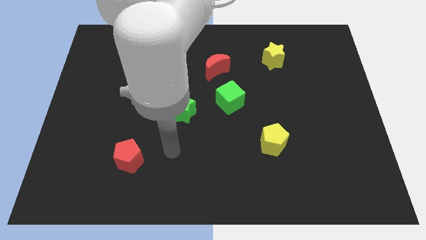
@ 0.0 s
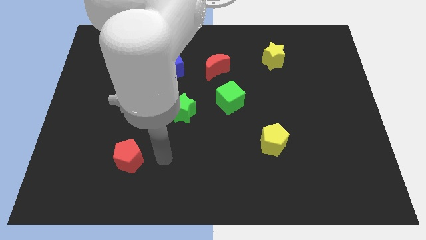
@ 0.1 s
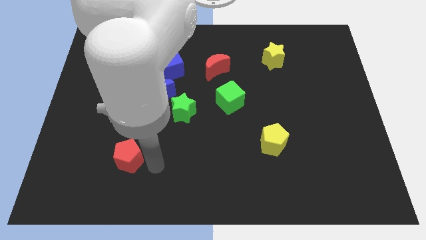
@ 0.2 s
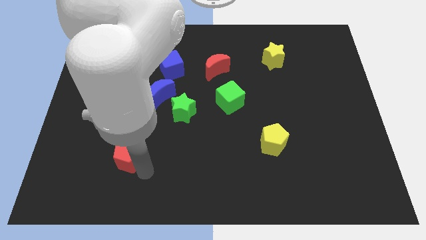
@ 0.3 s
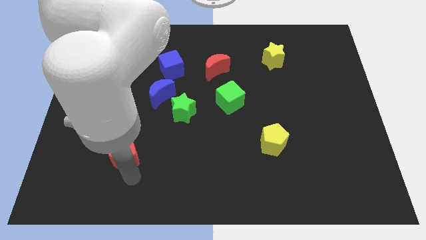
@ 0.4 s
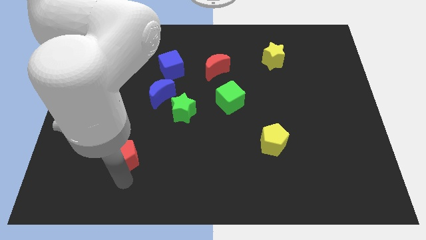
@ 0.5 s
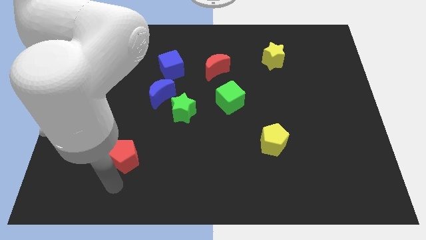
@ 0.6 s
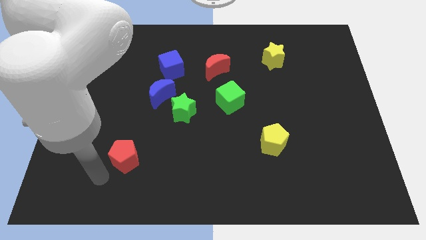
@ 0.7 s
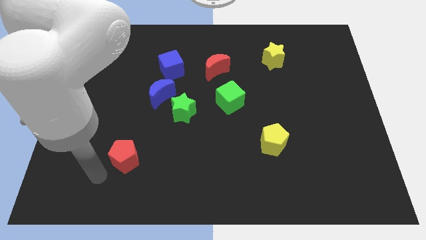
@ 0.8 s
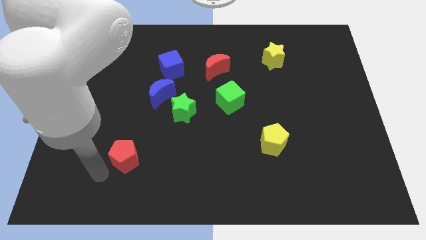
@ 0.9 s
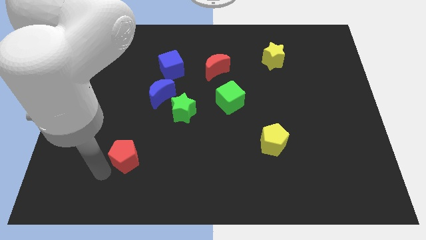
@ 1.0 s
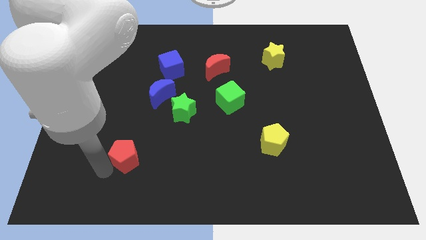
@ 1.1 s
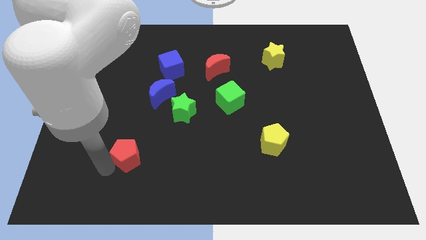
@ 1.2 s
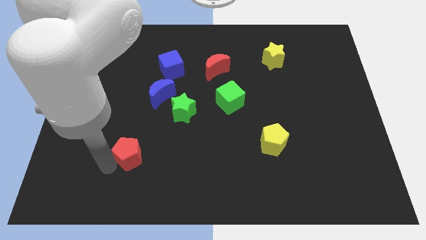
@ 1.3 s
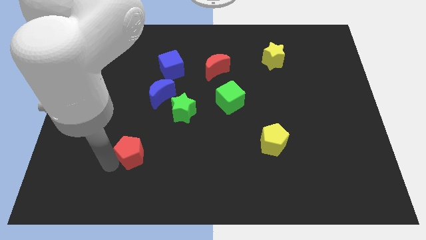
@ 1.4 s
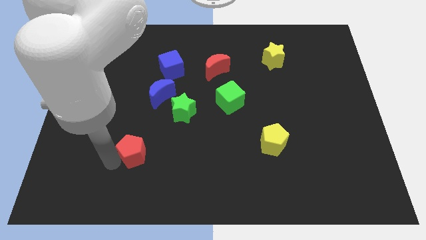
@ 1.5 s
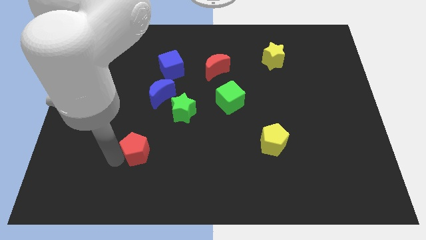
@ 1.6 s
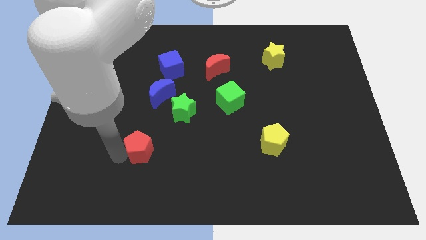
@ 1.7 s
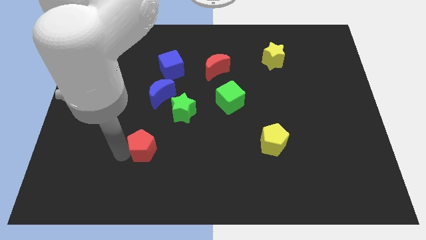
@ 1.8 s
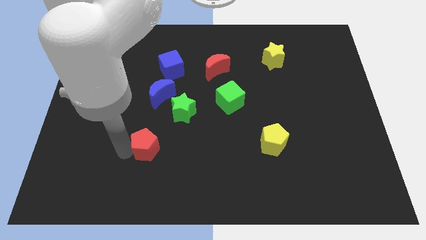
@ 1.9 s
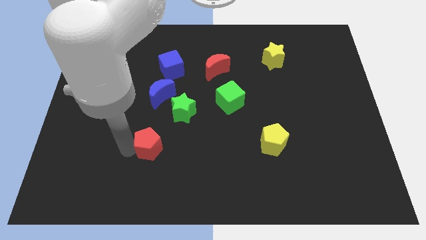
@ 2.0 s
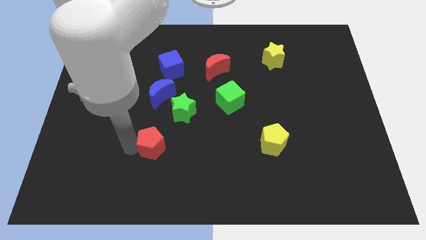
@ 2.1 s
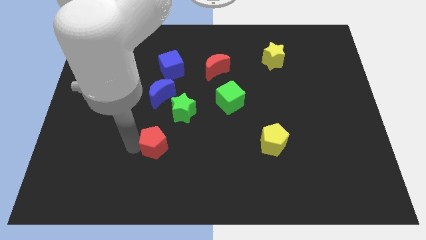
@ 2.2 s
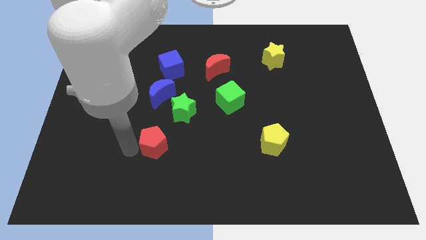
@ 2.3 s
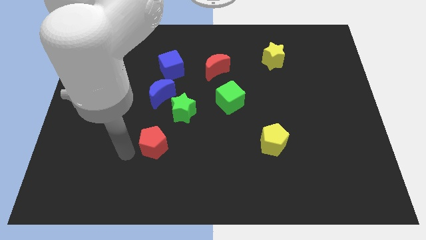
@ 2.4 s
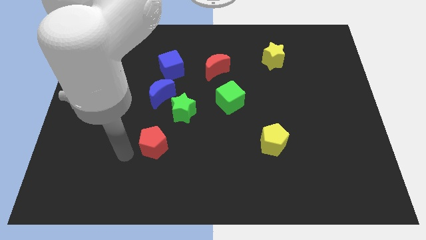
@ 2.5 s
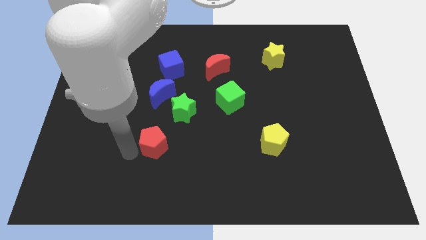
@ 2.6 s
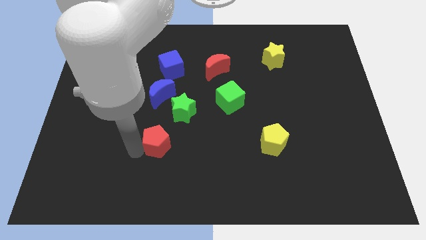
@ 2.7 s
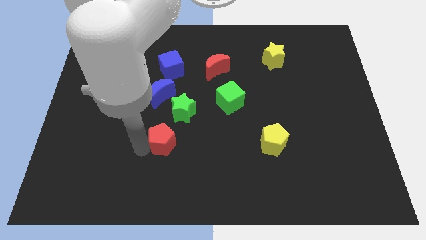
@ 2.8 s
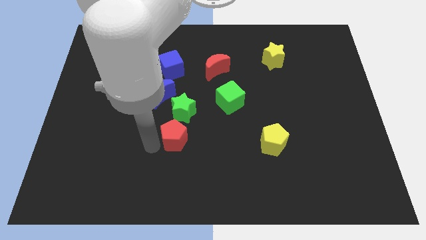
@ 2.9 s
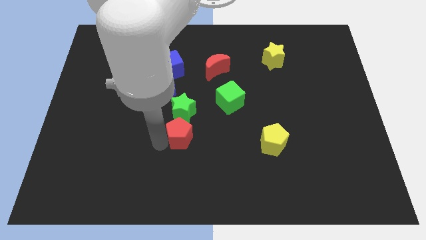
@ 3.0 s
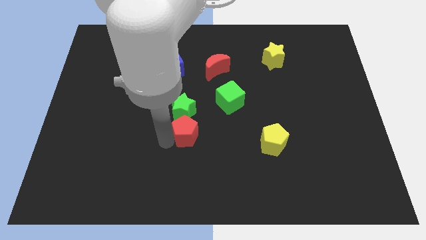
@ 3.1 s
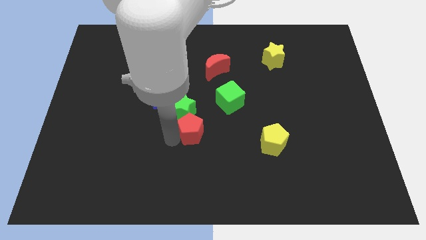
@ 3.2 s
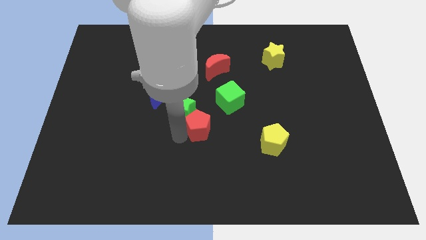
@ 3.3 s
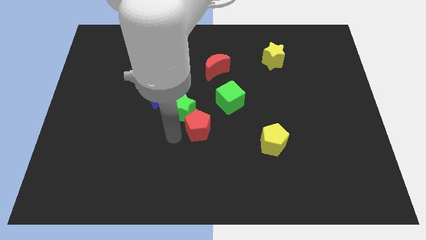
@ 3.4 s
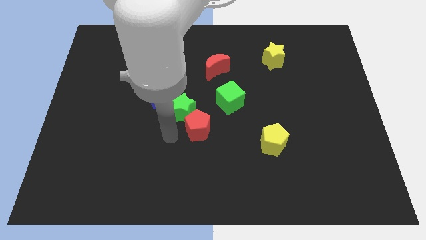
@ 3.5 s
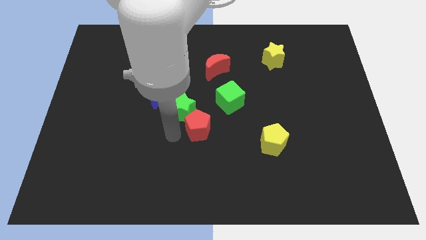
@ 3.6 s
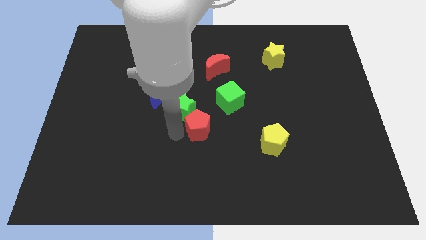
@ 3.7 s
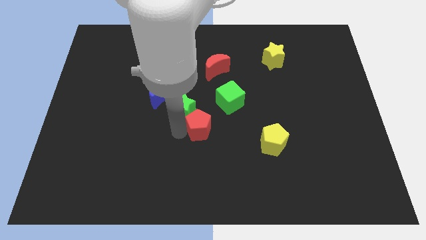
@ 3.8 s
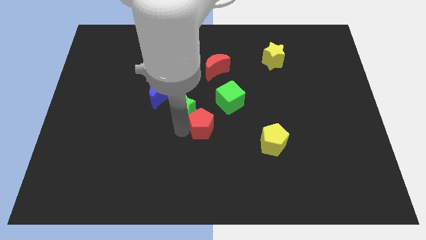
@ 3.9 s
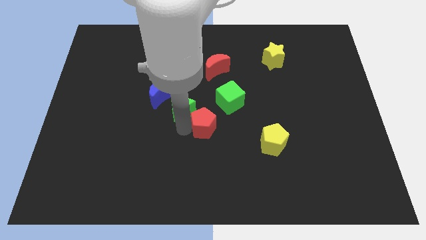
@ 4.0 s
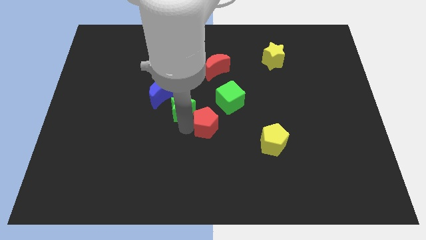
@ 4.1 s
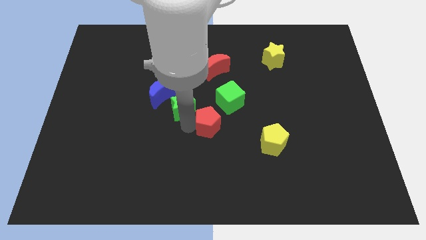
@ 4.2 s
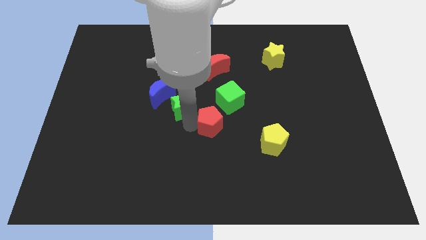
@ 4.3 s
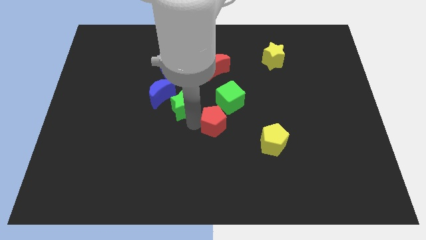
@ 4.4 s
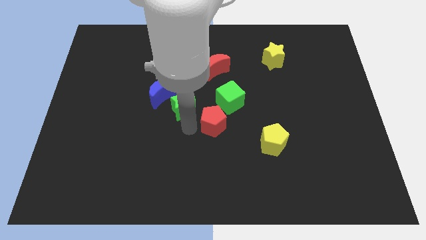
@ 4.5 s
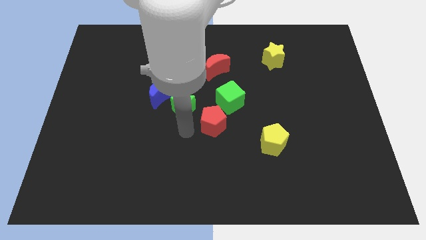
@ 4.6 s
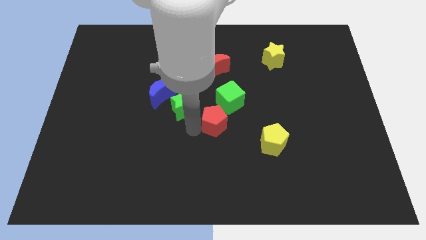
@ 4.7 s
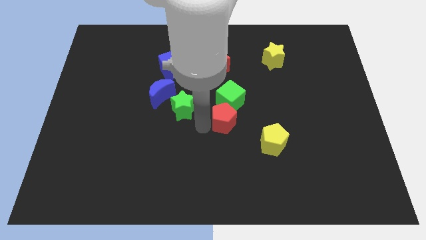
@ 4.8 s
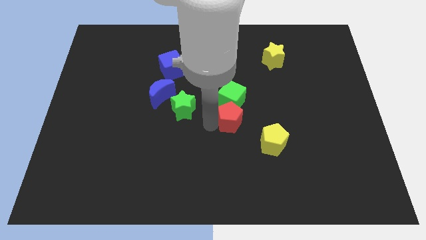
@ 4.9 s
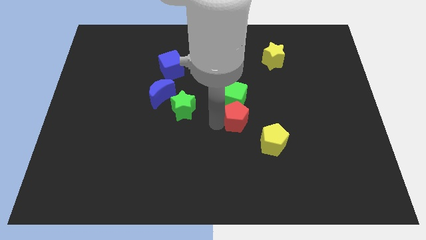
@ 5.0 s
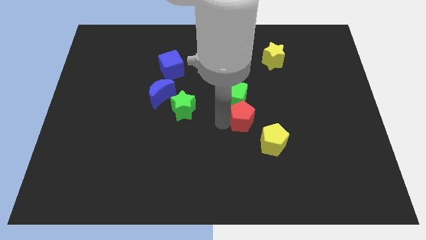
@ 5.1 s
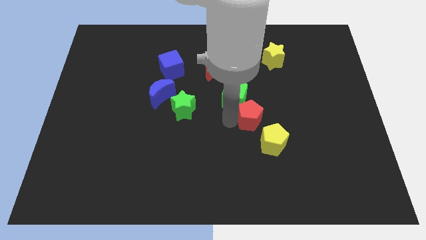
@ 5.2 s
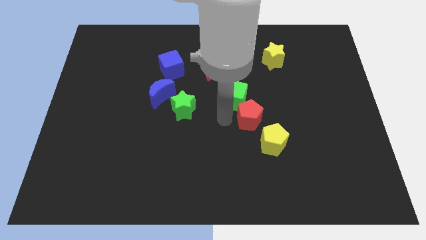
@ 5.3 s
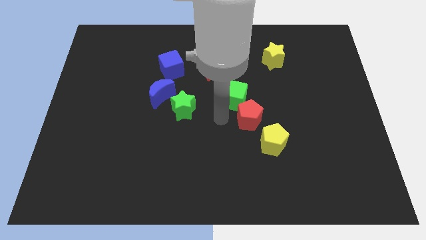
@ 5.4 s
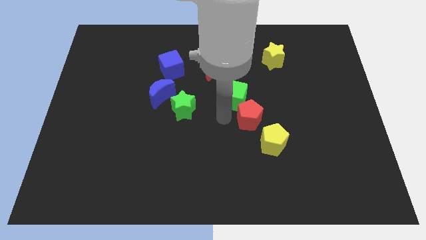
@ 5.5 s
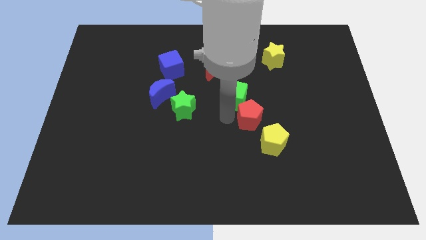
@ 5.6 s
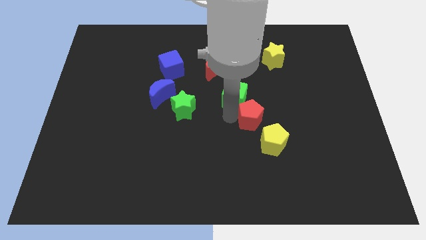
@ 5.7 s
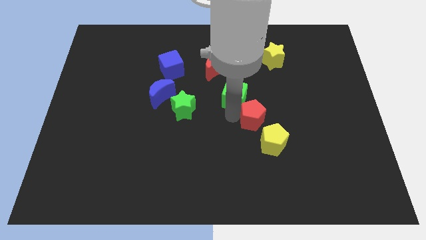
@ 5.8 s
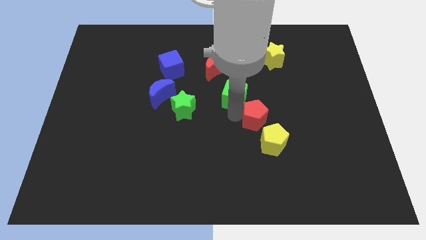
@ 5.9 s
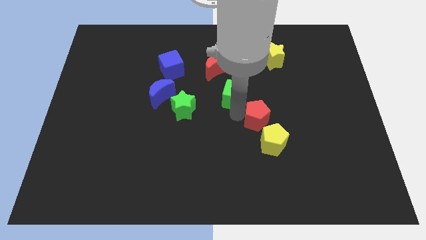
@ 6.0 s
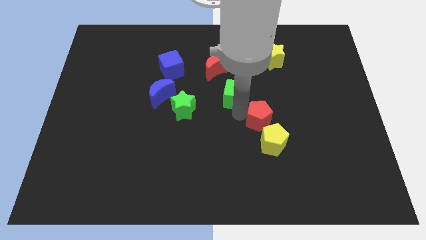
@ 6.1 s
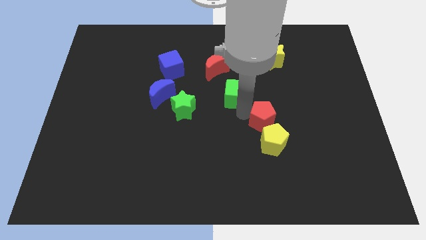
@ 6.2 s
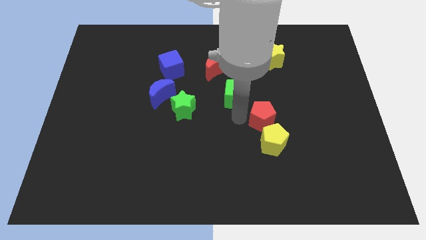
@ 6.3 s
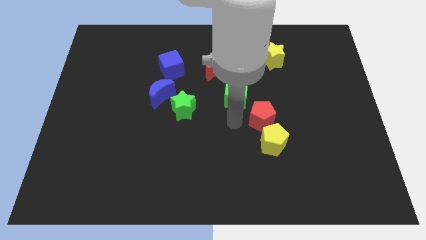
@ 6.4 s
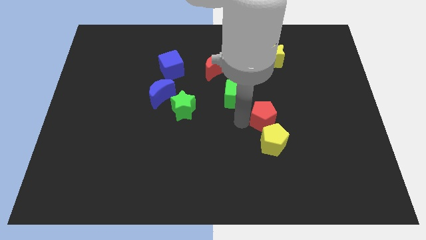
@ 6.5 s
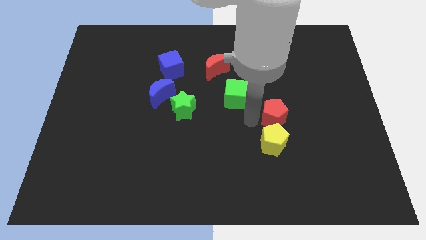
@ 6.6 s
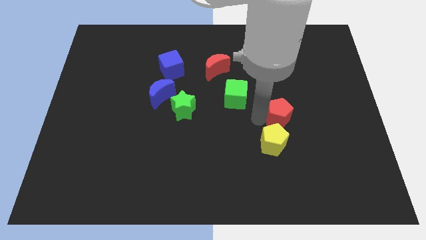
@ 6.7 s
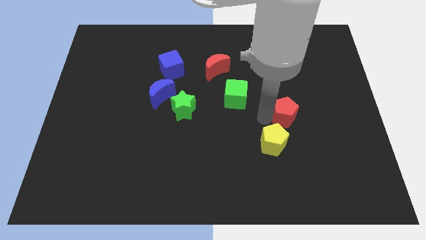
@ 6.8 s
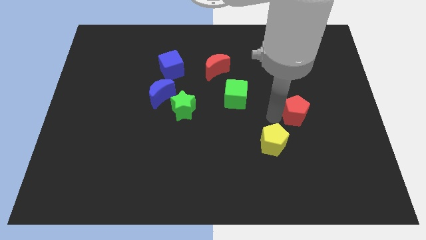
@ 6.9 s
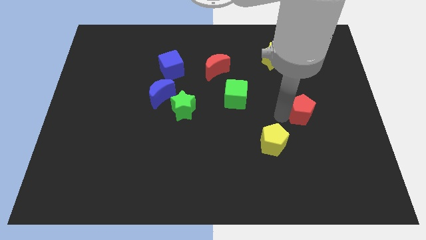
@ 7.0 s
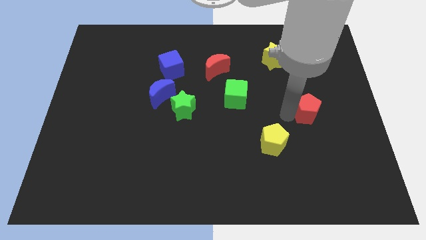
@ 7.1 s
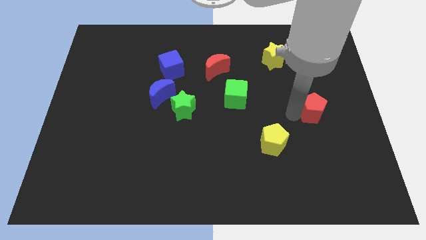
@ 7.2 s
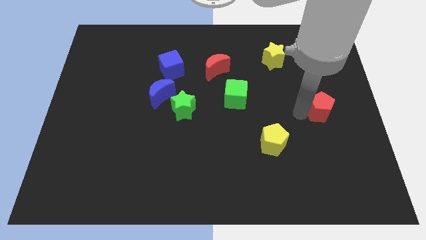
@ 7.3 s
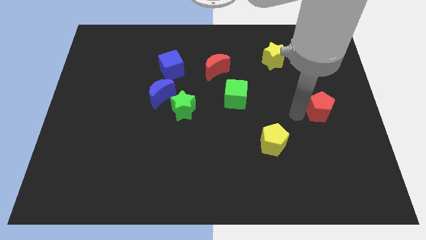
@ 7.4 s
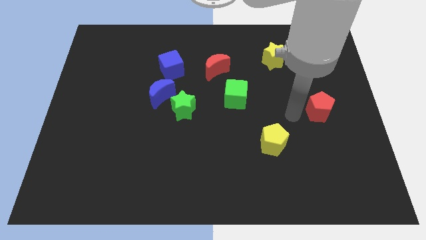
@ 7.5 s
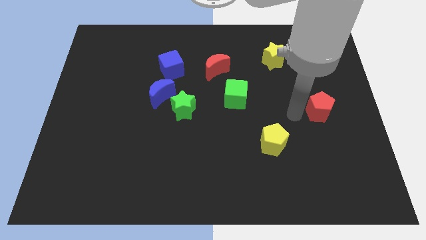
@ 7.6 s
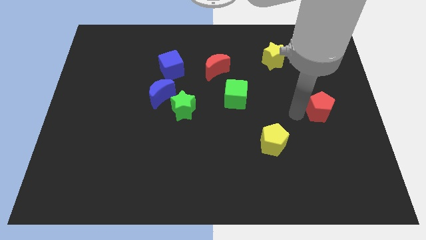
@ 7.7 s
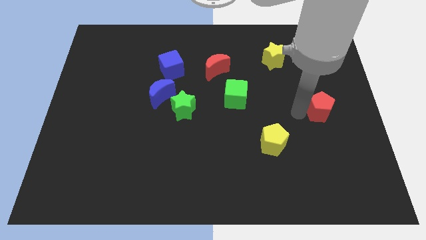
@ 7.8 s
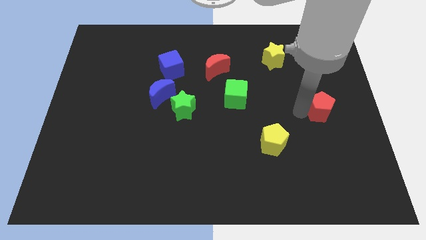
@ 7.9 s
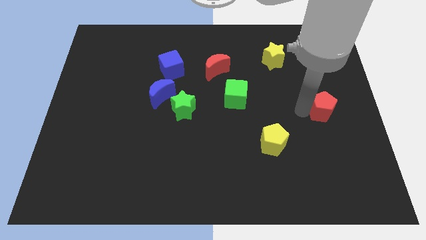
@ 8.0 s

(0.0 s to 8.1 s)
slide the red pentagon to the right side
